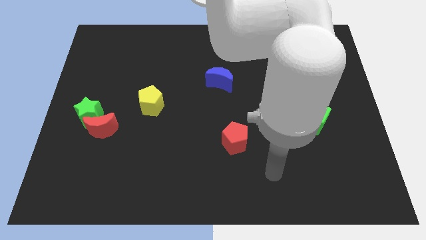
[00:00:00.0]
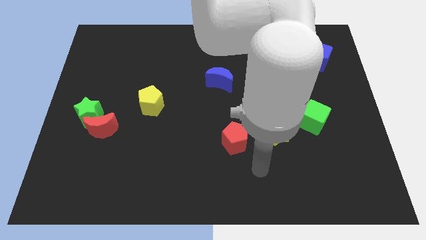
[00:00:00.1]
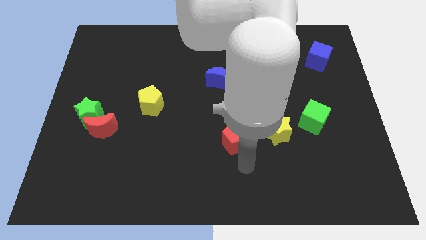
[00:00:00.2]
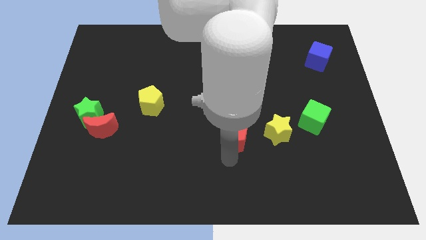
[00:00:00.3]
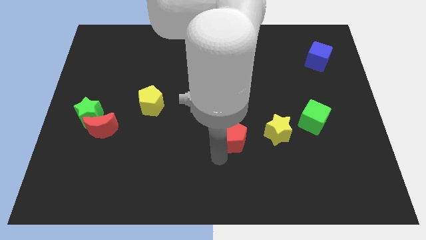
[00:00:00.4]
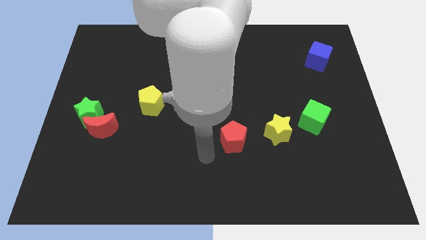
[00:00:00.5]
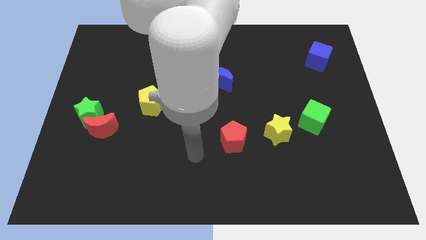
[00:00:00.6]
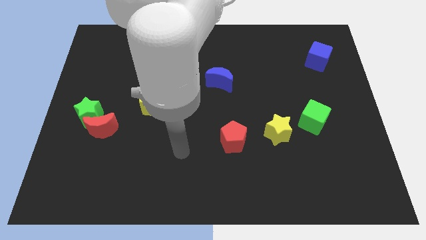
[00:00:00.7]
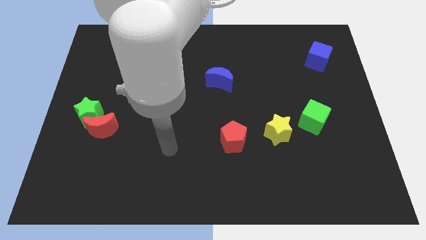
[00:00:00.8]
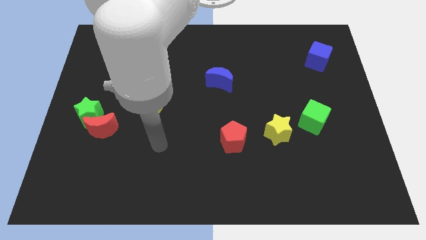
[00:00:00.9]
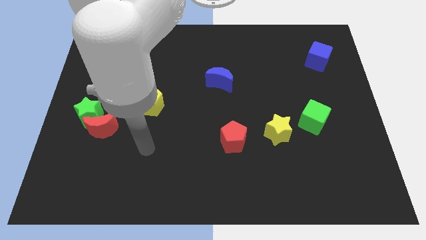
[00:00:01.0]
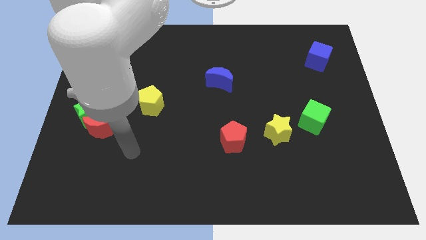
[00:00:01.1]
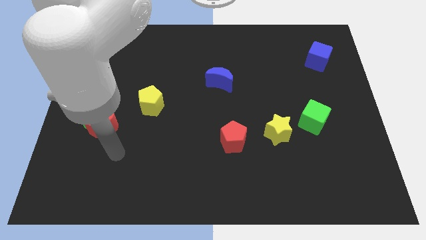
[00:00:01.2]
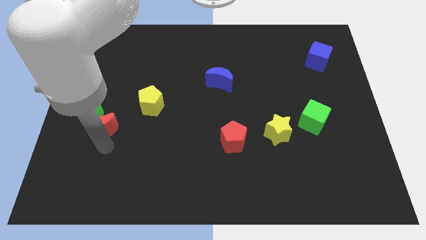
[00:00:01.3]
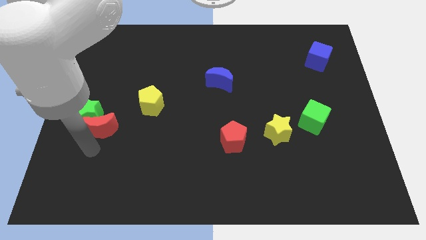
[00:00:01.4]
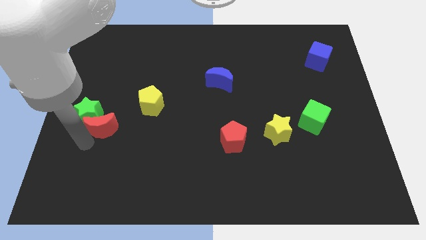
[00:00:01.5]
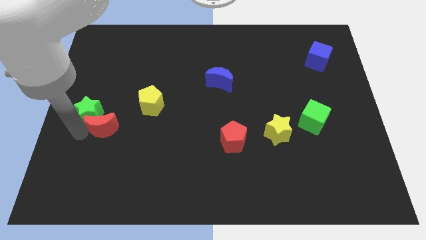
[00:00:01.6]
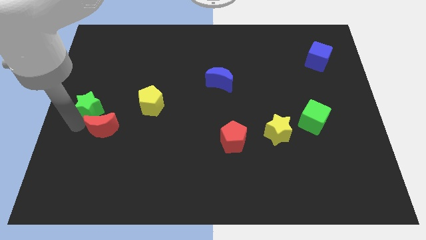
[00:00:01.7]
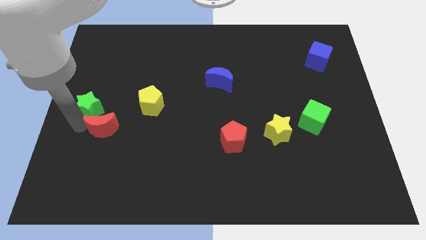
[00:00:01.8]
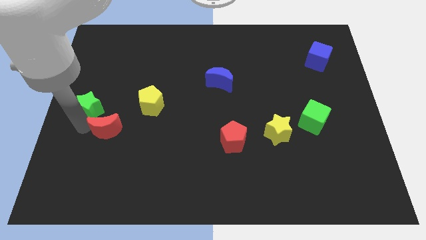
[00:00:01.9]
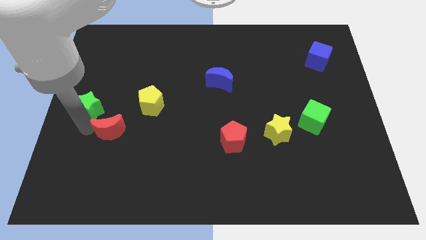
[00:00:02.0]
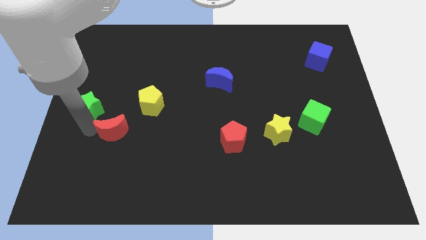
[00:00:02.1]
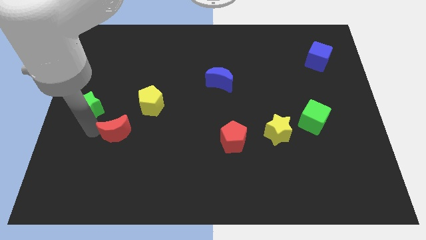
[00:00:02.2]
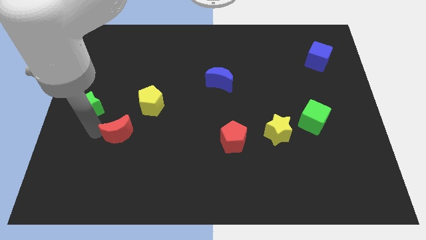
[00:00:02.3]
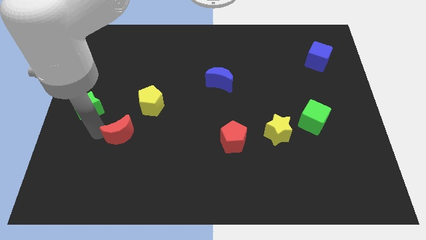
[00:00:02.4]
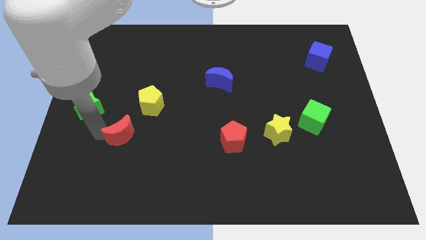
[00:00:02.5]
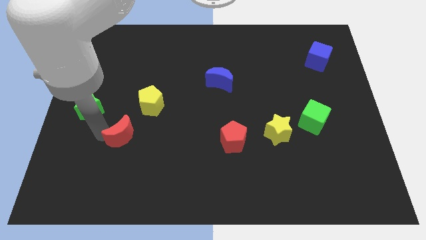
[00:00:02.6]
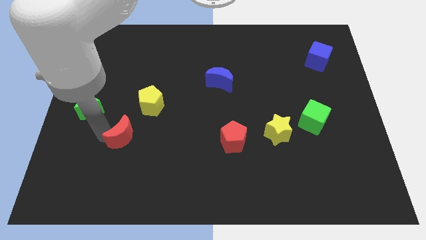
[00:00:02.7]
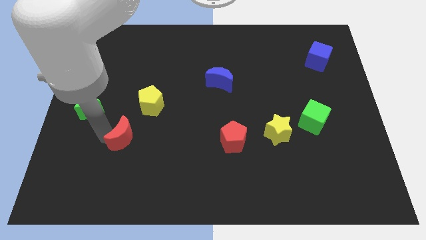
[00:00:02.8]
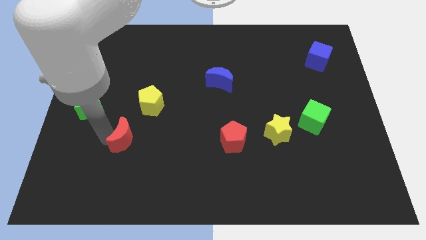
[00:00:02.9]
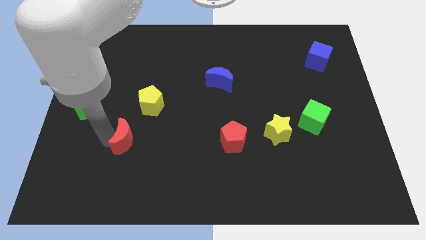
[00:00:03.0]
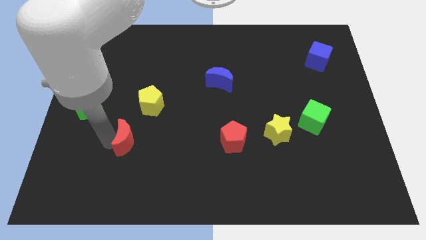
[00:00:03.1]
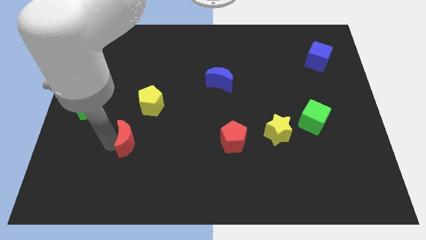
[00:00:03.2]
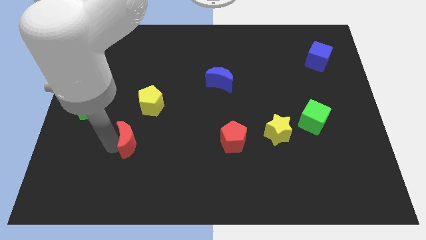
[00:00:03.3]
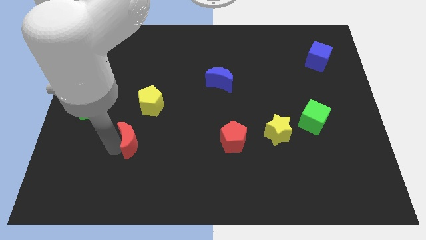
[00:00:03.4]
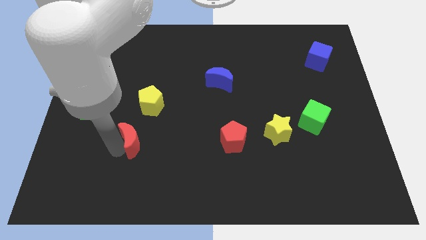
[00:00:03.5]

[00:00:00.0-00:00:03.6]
slightly push the red moon to the right

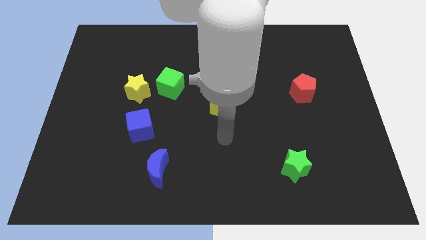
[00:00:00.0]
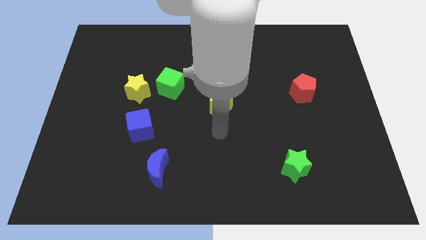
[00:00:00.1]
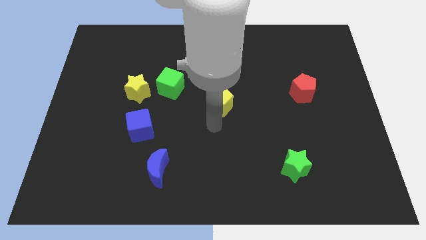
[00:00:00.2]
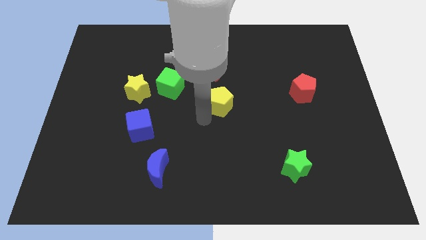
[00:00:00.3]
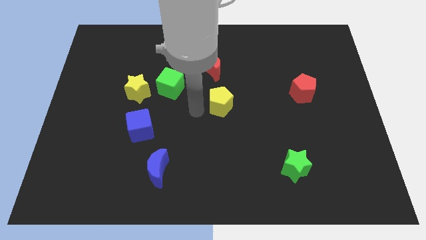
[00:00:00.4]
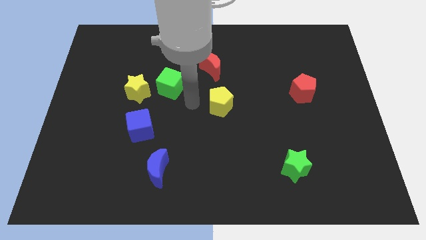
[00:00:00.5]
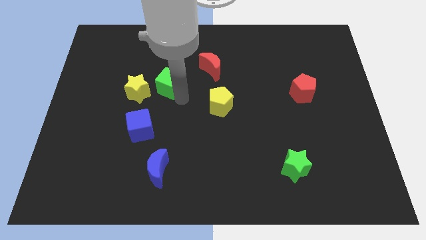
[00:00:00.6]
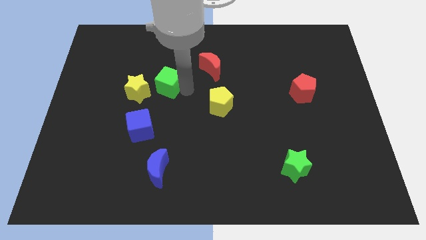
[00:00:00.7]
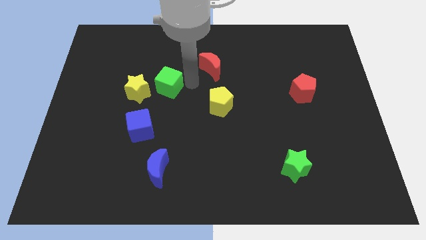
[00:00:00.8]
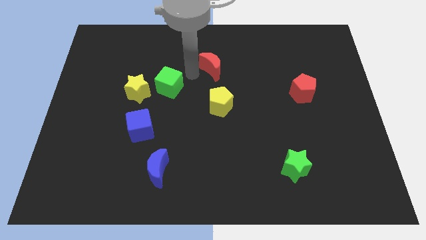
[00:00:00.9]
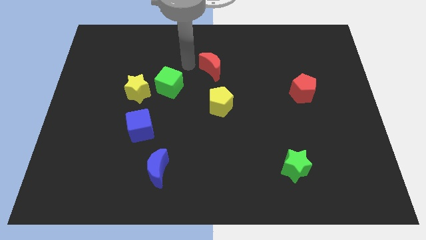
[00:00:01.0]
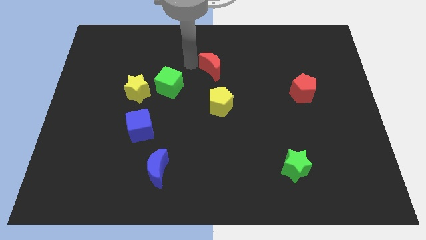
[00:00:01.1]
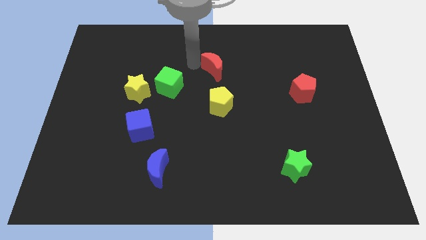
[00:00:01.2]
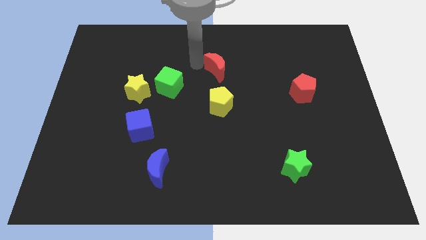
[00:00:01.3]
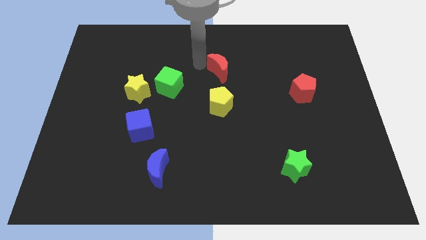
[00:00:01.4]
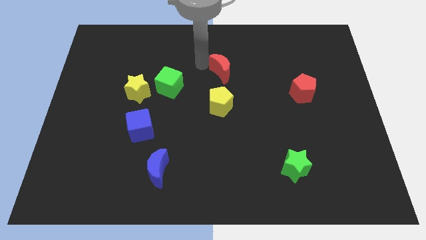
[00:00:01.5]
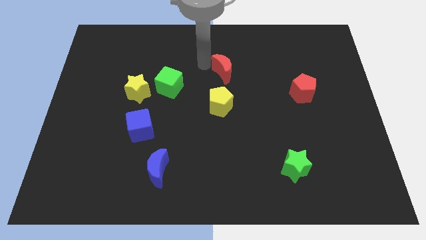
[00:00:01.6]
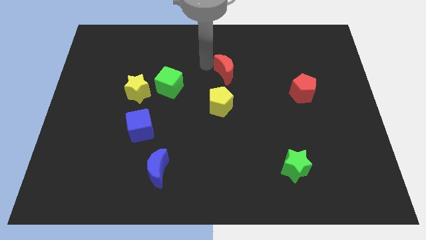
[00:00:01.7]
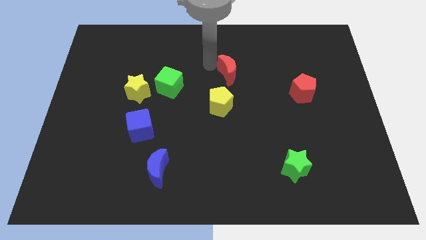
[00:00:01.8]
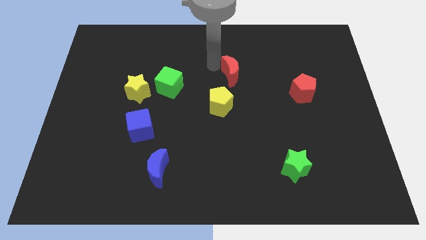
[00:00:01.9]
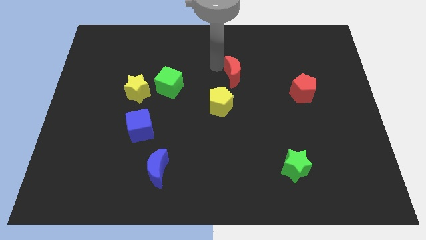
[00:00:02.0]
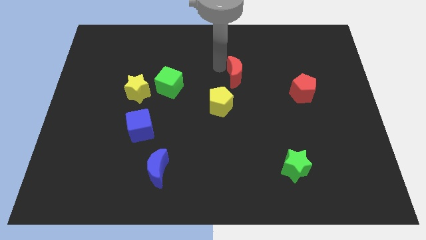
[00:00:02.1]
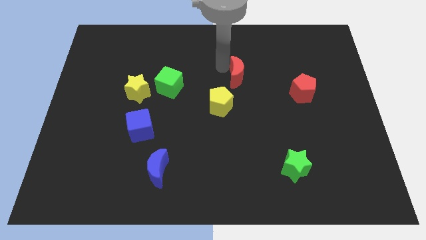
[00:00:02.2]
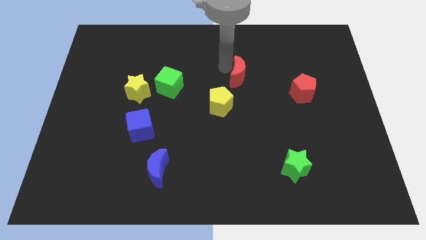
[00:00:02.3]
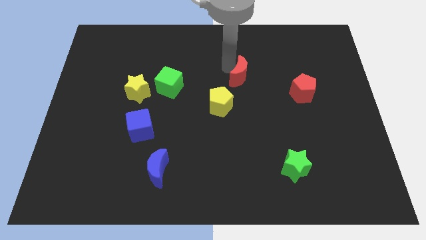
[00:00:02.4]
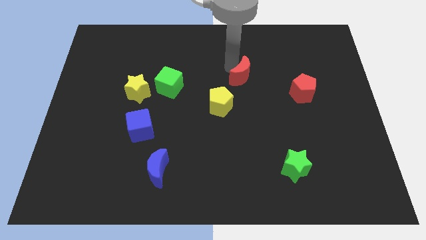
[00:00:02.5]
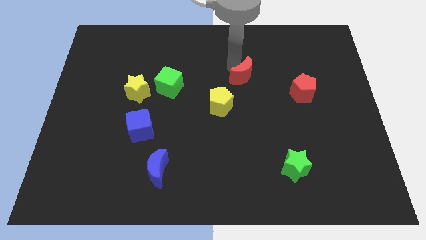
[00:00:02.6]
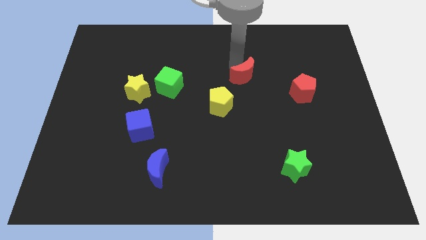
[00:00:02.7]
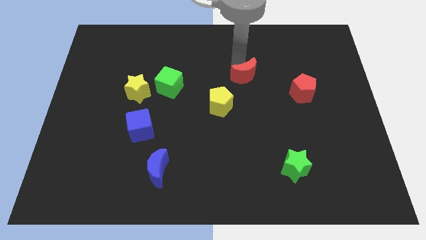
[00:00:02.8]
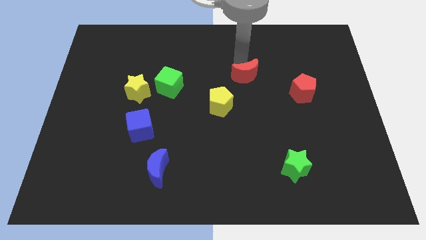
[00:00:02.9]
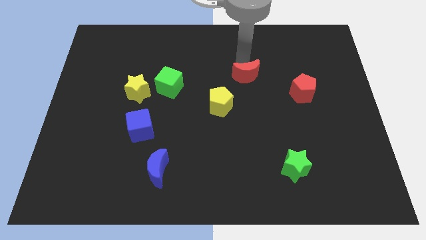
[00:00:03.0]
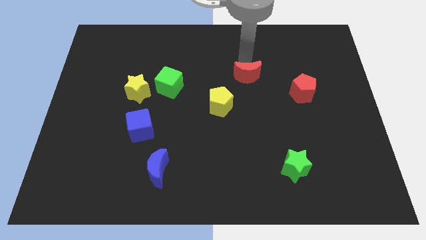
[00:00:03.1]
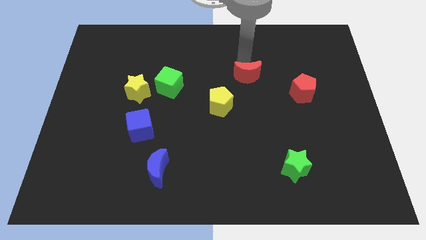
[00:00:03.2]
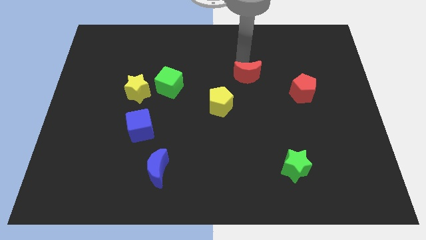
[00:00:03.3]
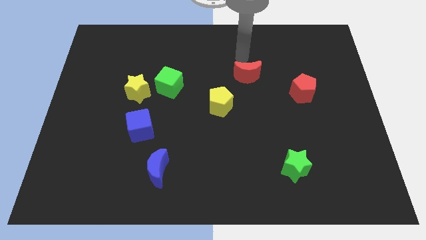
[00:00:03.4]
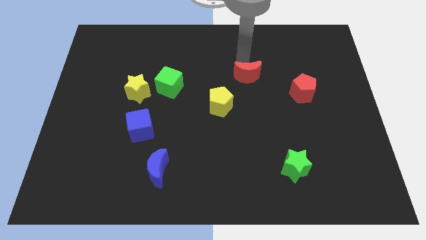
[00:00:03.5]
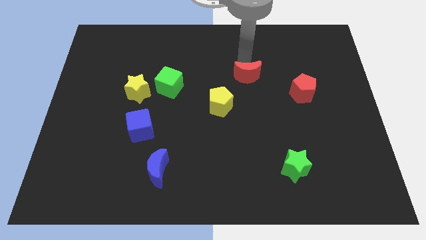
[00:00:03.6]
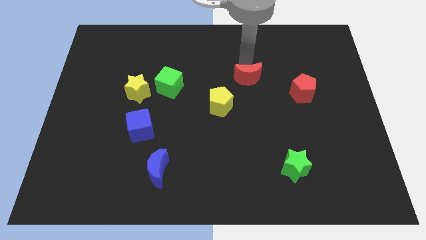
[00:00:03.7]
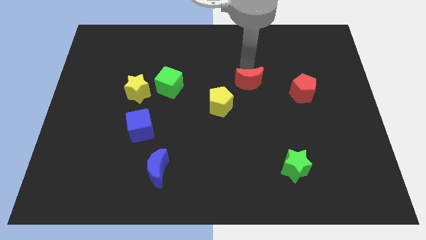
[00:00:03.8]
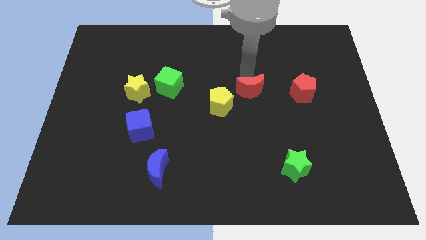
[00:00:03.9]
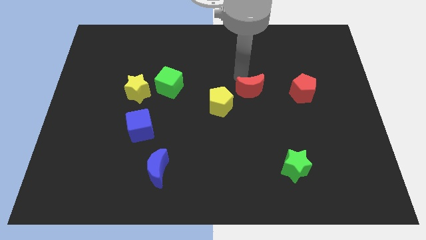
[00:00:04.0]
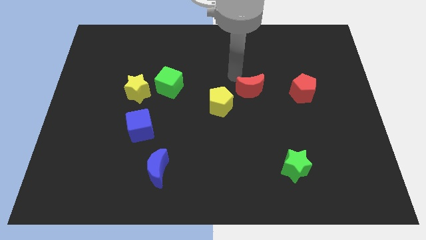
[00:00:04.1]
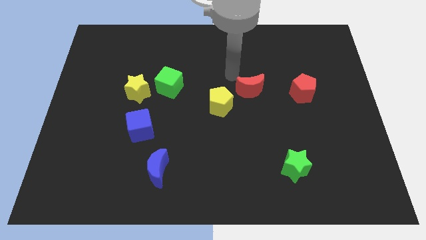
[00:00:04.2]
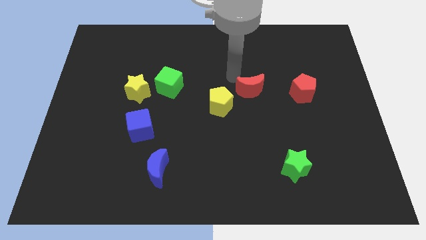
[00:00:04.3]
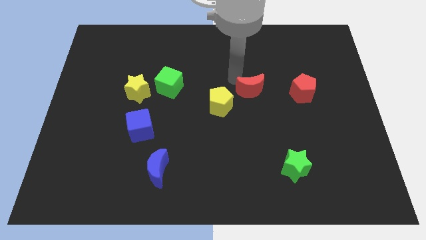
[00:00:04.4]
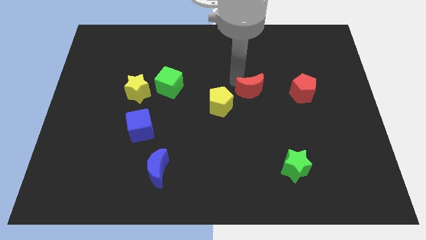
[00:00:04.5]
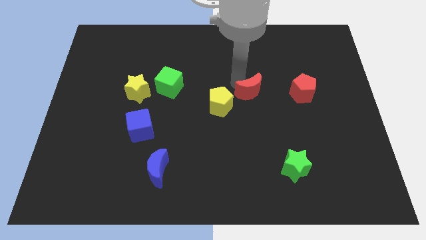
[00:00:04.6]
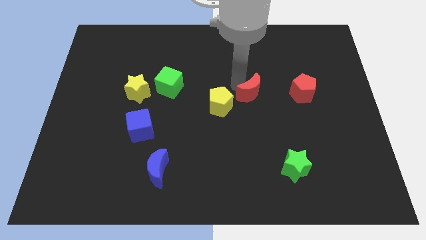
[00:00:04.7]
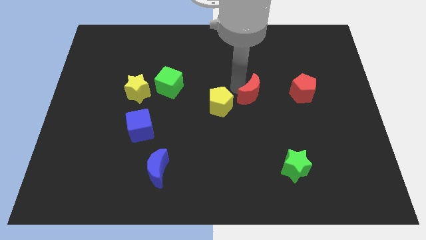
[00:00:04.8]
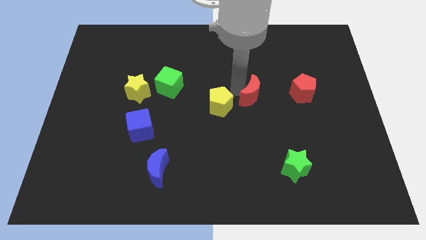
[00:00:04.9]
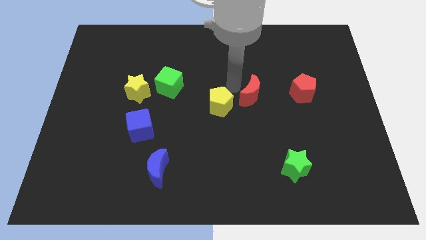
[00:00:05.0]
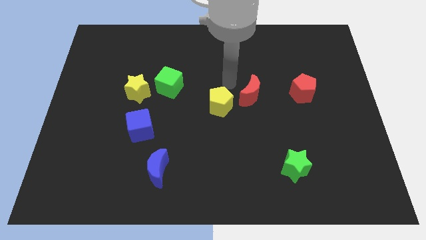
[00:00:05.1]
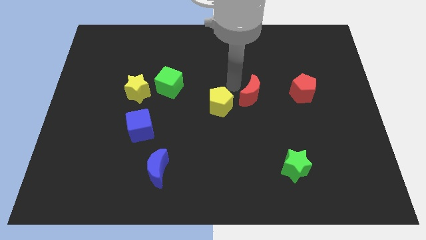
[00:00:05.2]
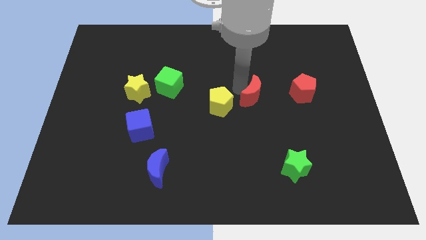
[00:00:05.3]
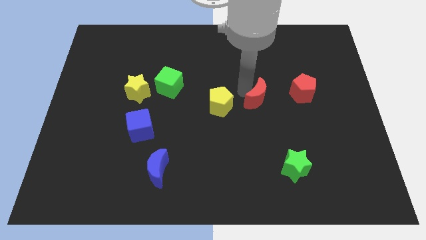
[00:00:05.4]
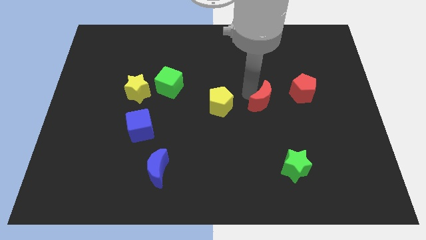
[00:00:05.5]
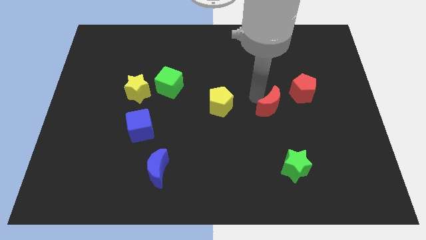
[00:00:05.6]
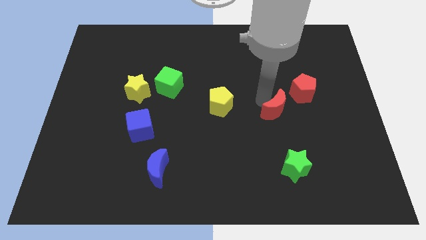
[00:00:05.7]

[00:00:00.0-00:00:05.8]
push the red moon diagonally down and to the right
